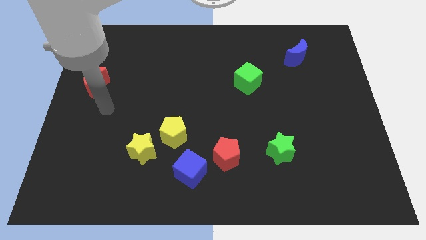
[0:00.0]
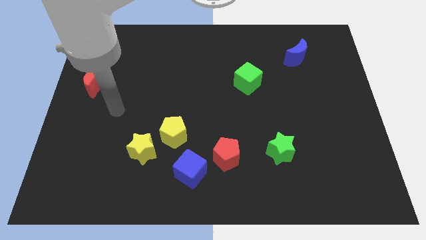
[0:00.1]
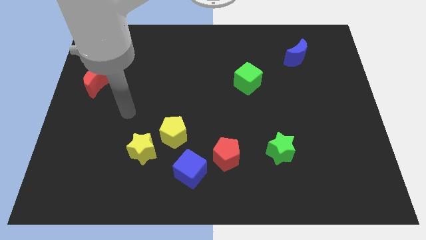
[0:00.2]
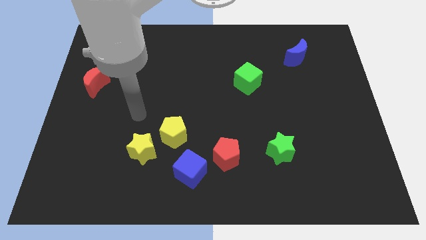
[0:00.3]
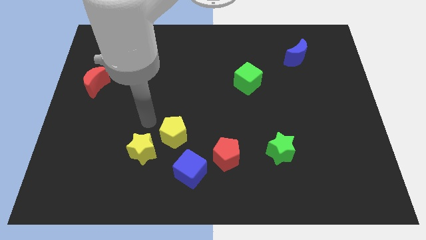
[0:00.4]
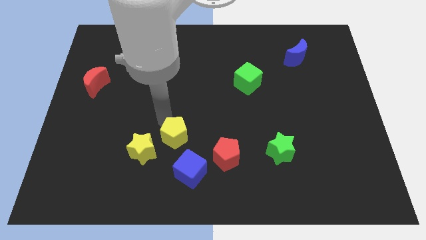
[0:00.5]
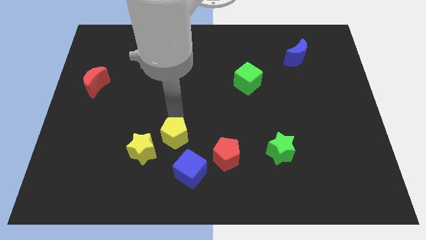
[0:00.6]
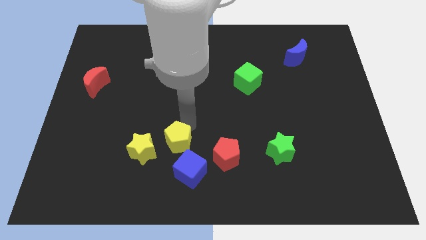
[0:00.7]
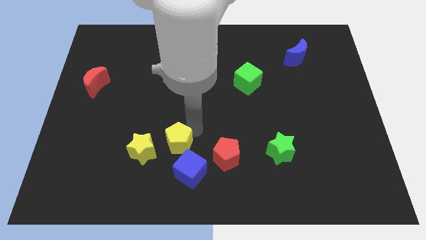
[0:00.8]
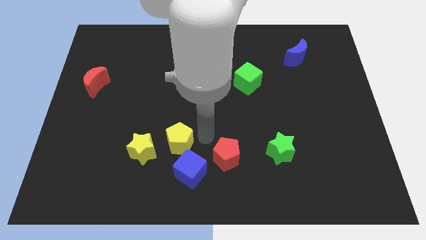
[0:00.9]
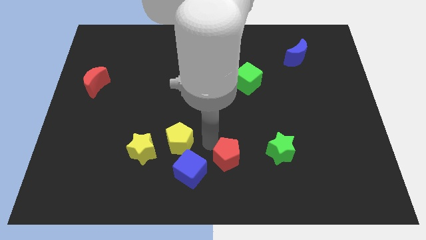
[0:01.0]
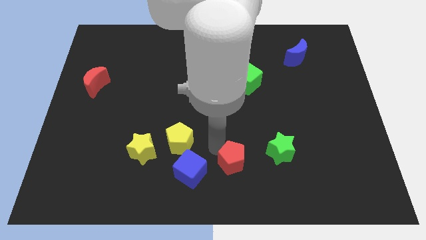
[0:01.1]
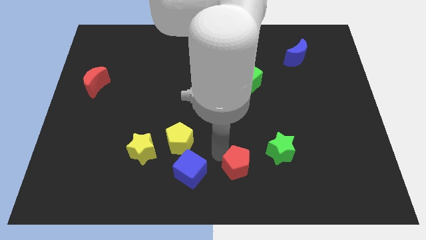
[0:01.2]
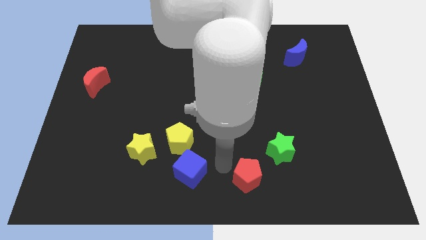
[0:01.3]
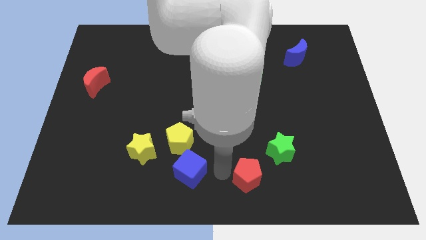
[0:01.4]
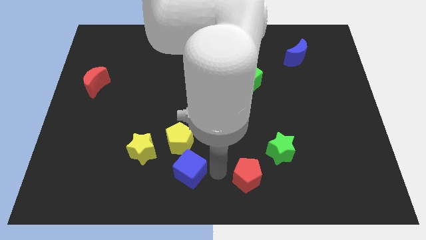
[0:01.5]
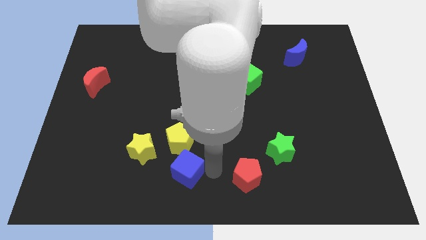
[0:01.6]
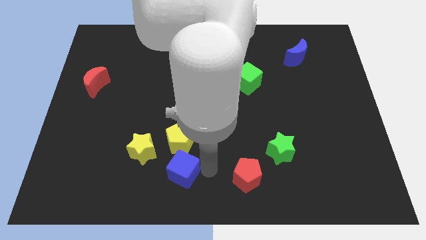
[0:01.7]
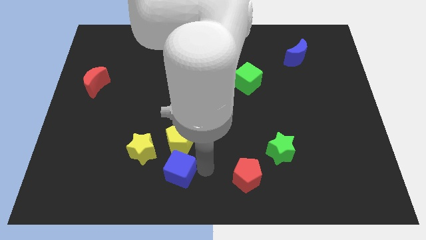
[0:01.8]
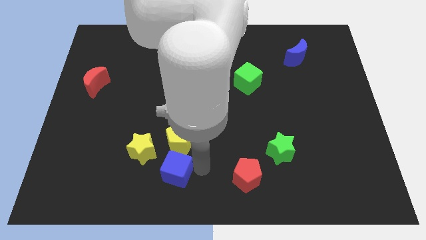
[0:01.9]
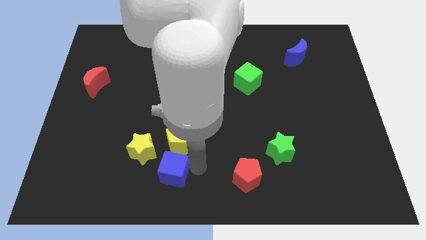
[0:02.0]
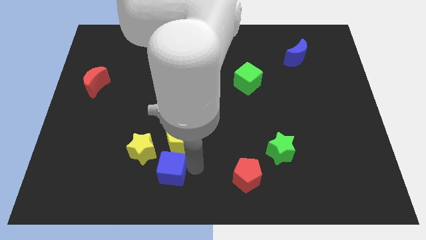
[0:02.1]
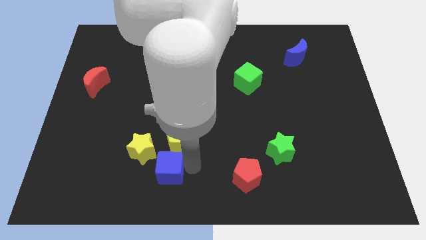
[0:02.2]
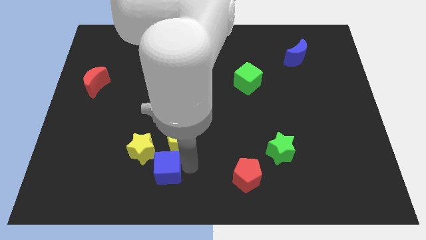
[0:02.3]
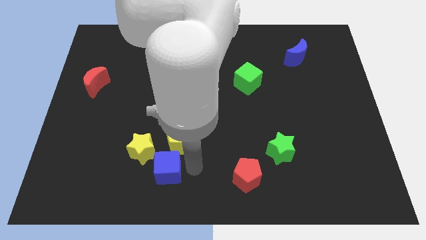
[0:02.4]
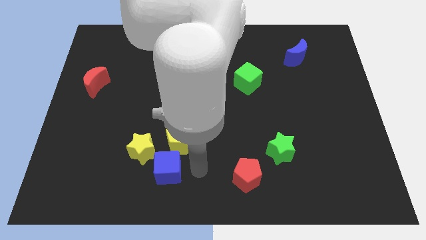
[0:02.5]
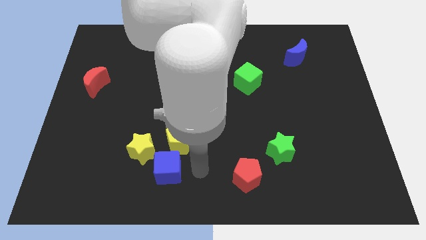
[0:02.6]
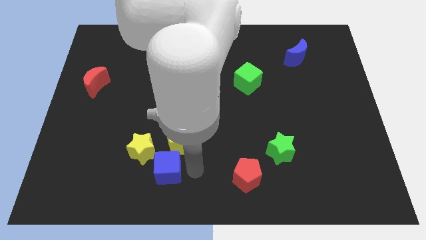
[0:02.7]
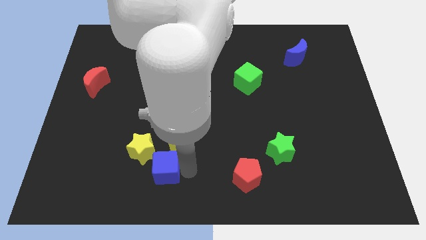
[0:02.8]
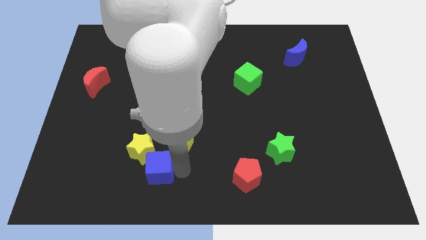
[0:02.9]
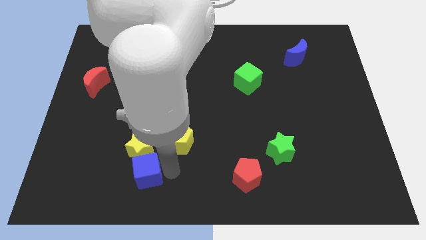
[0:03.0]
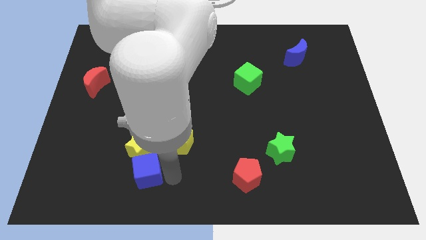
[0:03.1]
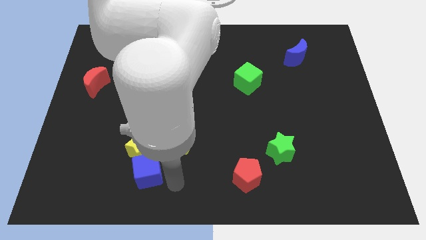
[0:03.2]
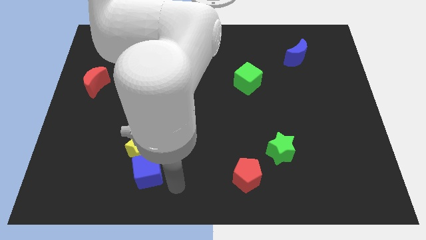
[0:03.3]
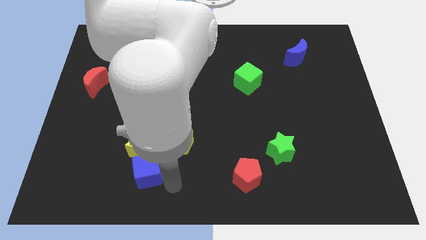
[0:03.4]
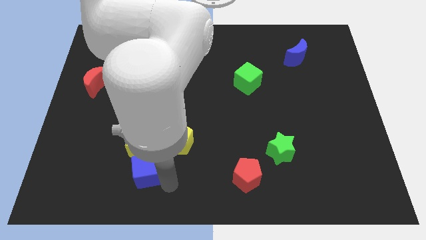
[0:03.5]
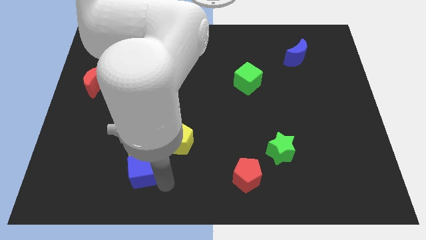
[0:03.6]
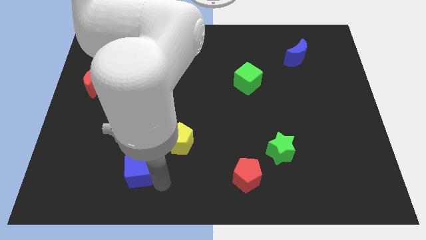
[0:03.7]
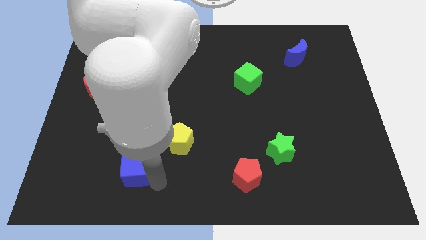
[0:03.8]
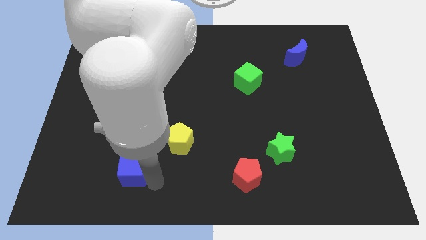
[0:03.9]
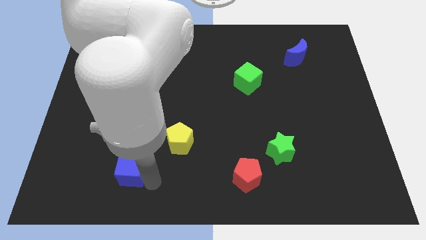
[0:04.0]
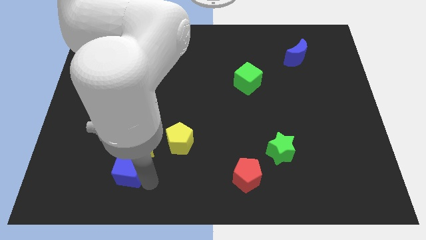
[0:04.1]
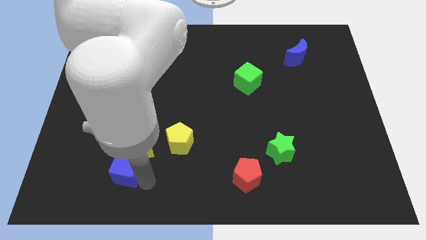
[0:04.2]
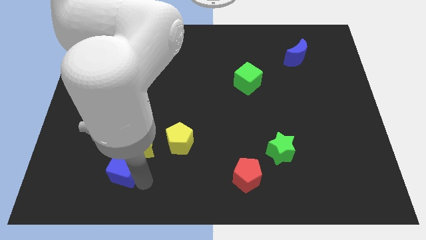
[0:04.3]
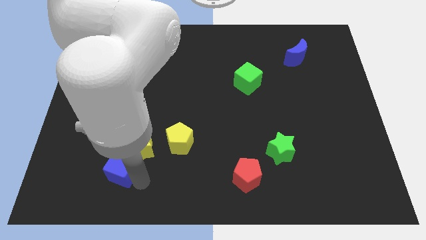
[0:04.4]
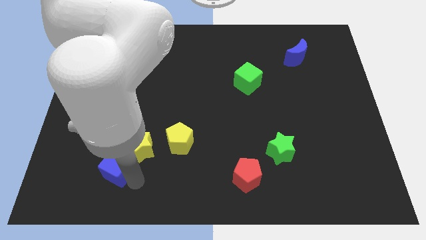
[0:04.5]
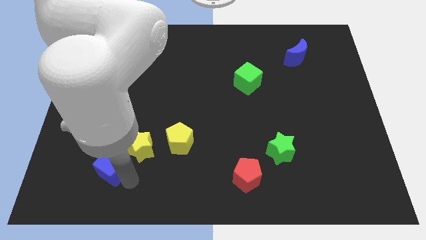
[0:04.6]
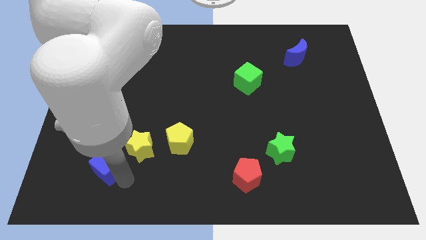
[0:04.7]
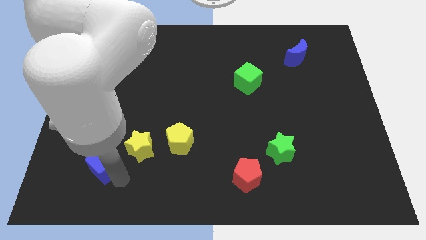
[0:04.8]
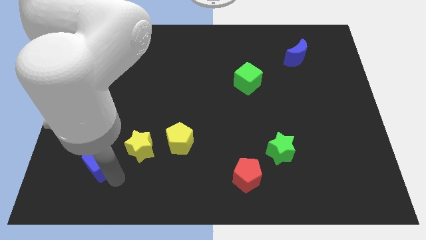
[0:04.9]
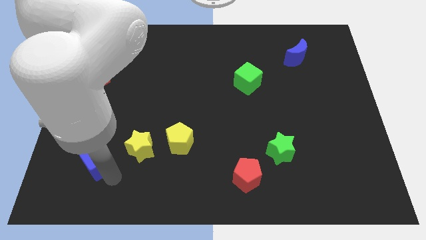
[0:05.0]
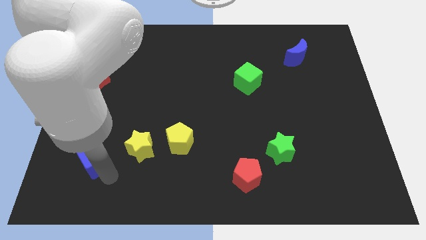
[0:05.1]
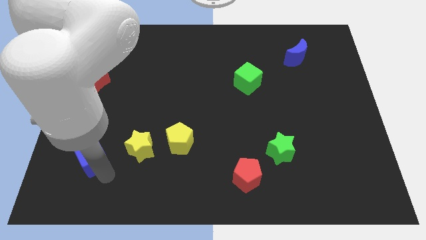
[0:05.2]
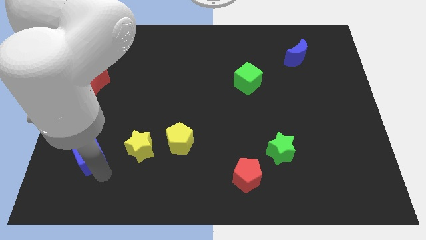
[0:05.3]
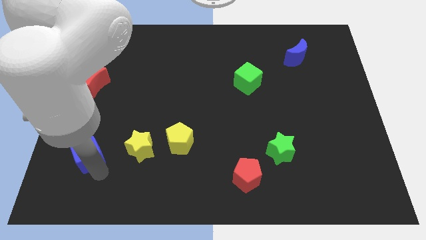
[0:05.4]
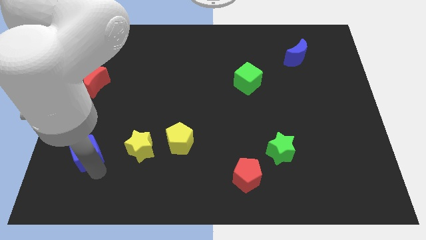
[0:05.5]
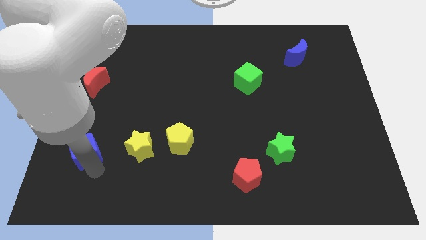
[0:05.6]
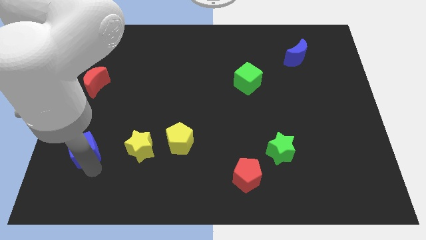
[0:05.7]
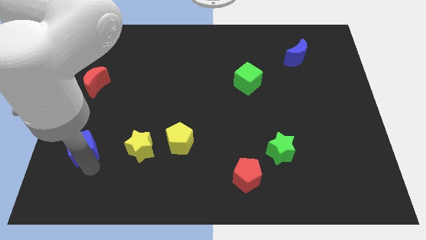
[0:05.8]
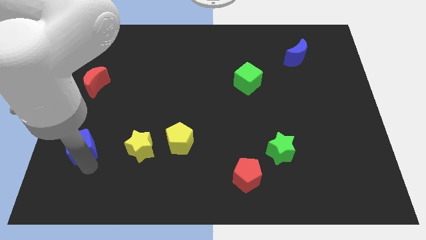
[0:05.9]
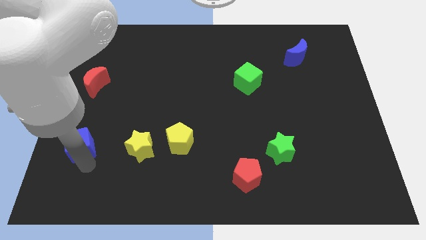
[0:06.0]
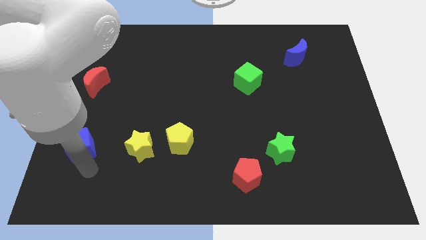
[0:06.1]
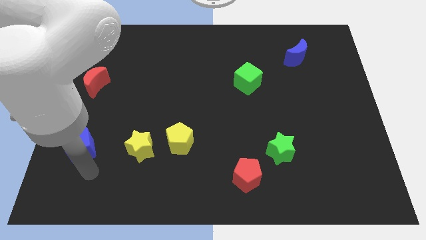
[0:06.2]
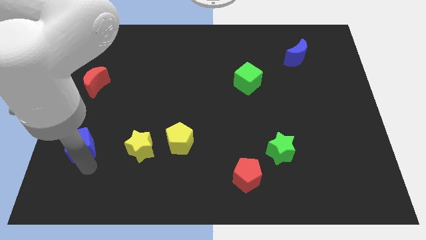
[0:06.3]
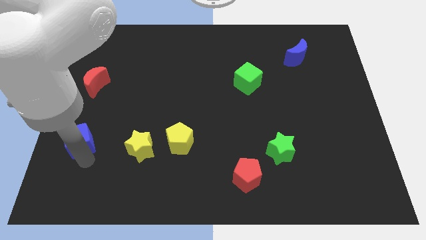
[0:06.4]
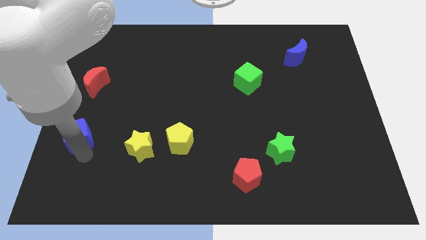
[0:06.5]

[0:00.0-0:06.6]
put the blue cube to the center left
